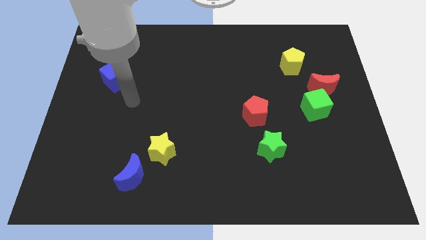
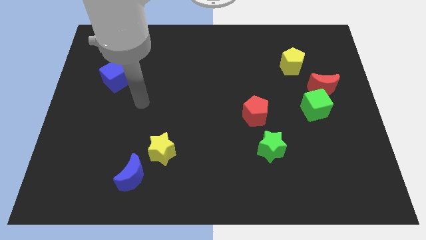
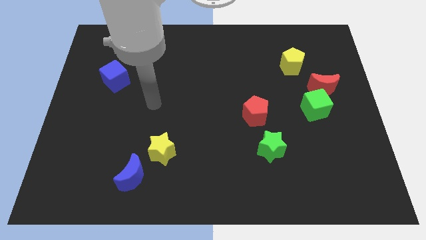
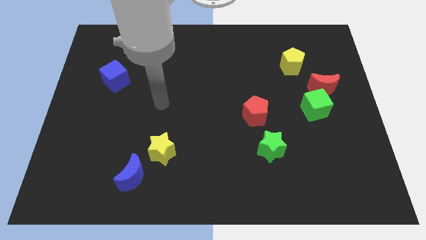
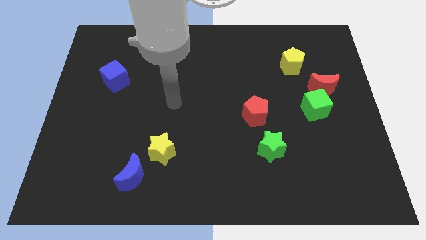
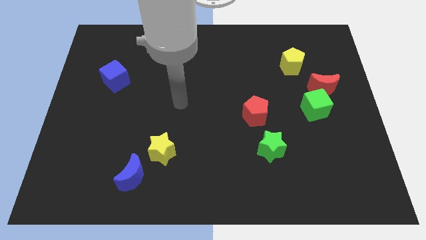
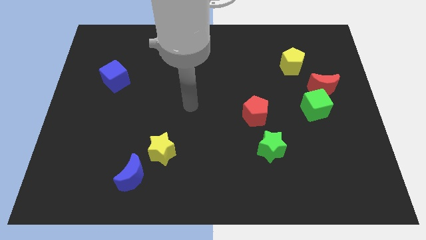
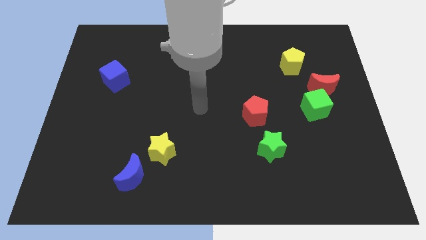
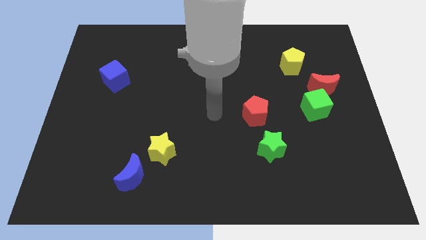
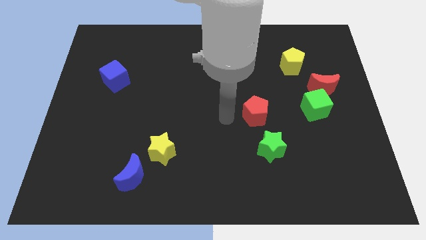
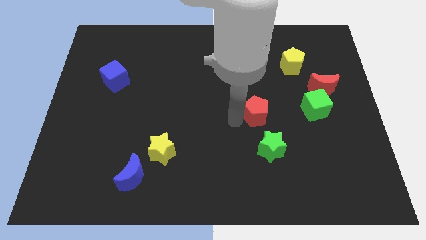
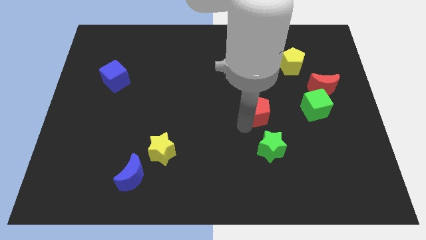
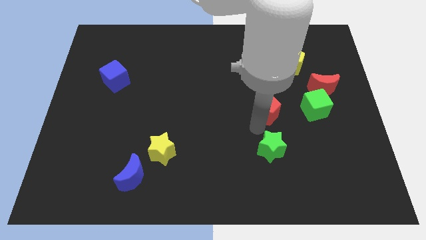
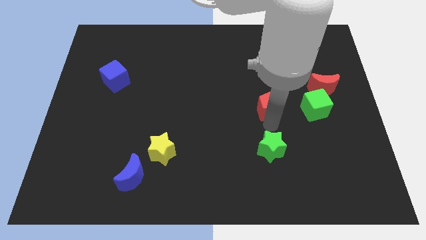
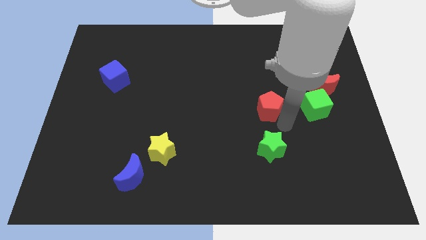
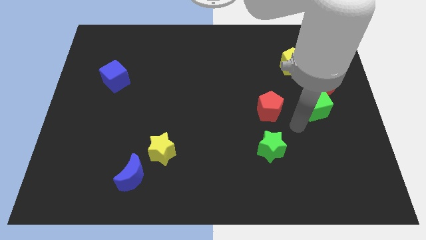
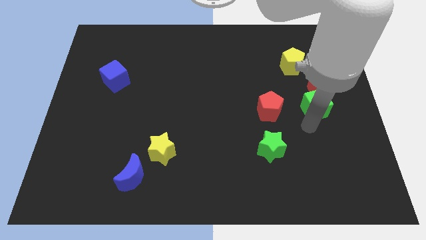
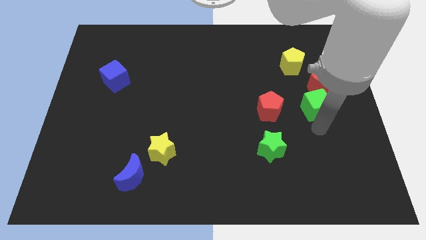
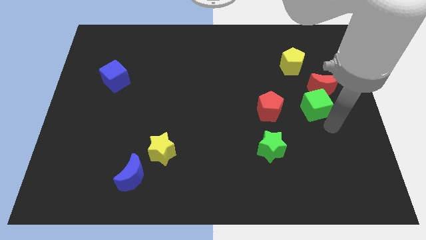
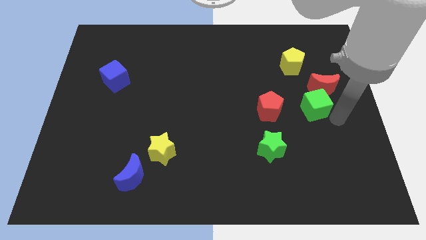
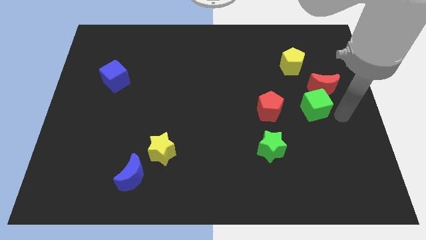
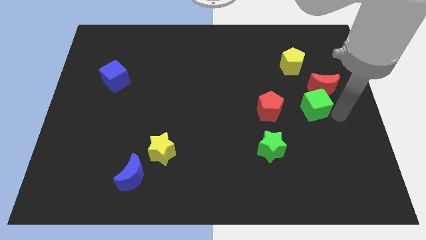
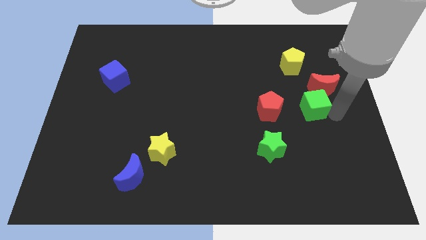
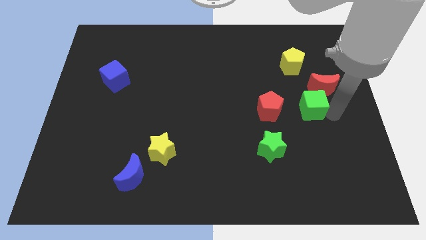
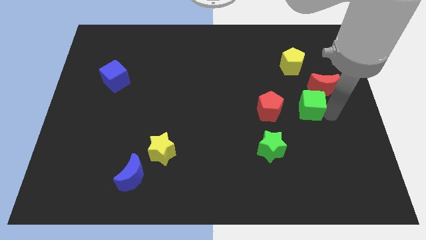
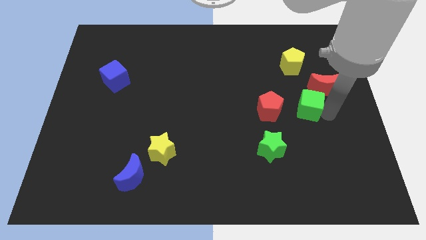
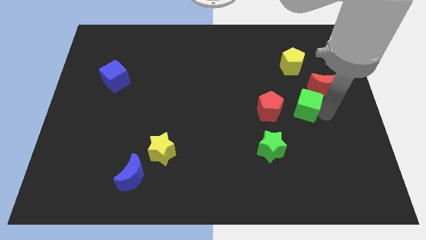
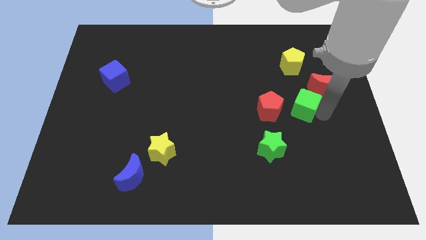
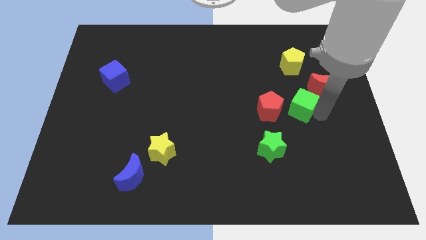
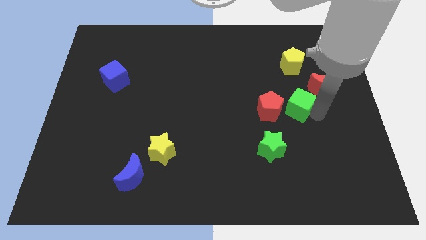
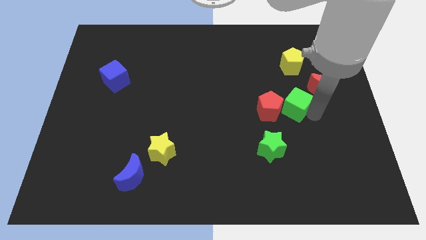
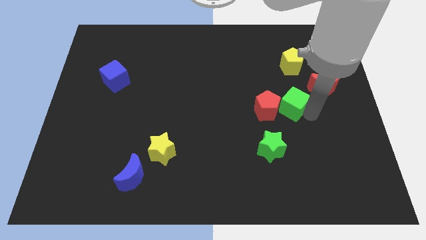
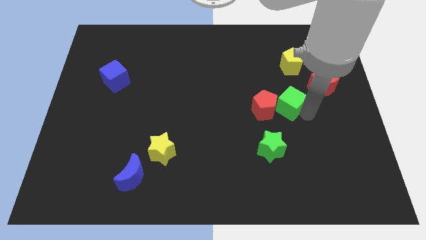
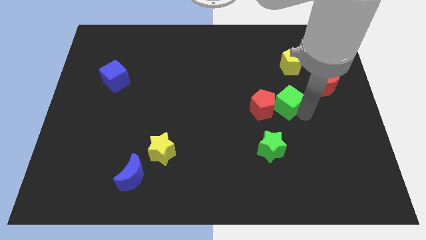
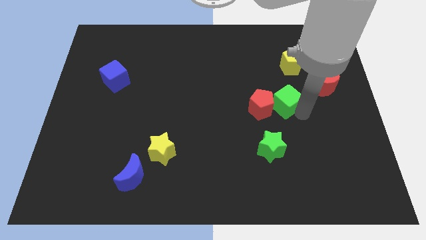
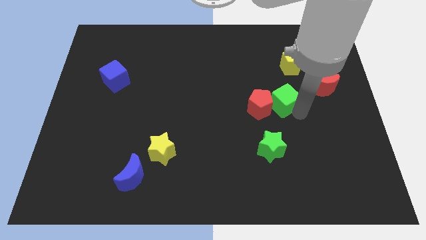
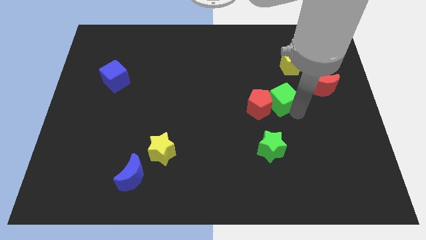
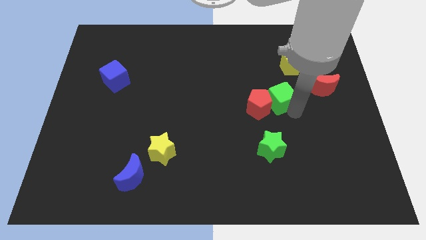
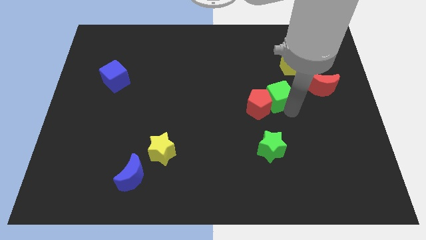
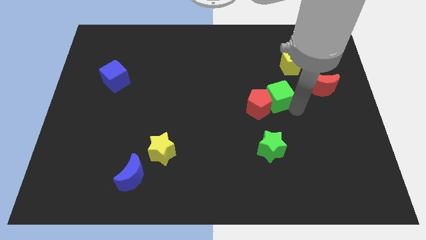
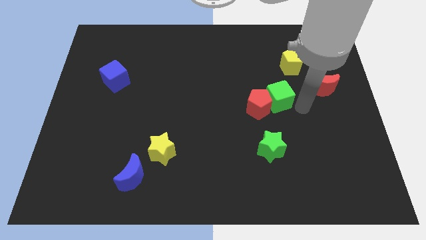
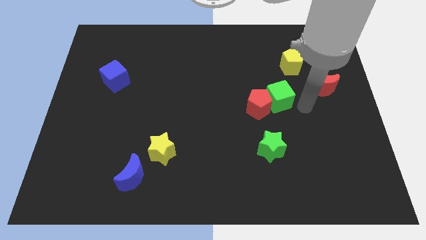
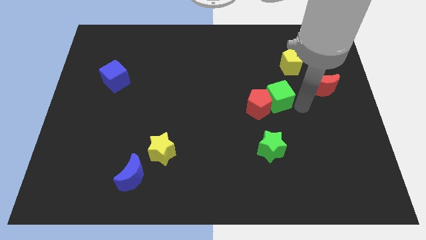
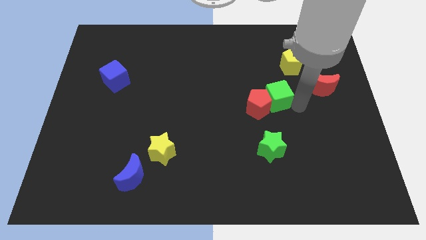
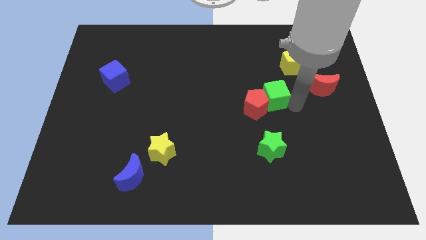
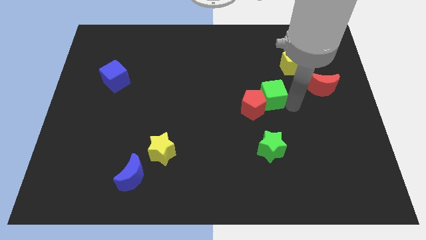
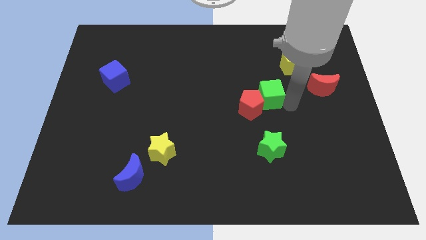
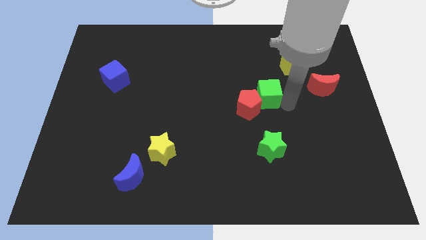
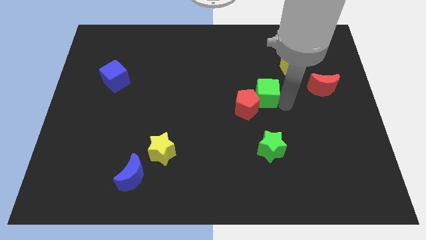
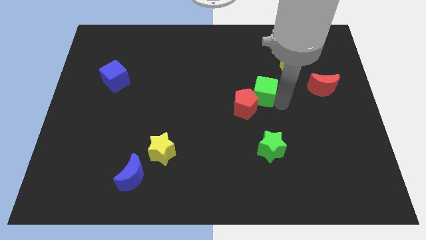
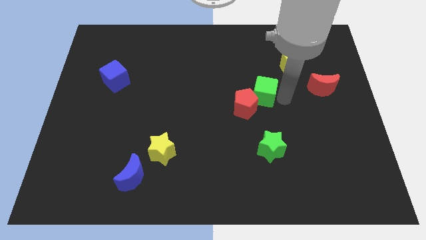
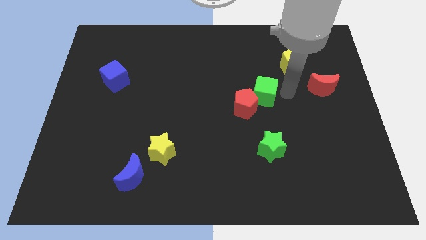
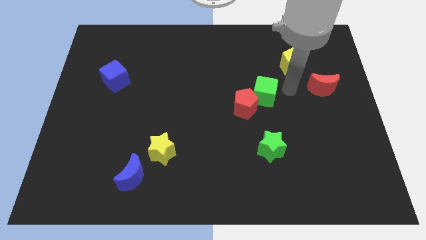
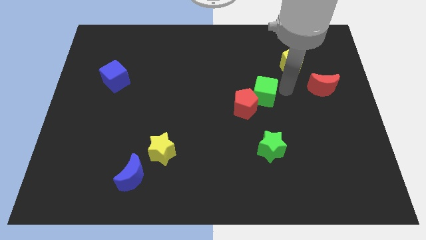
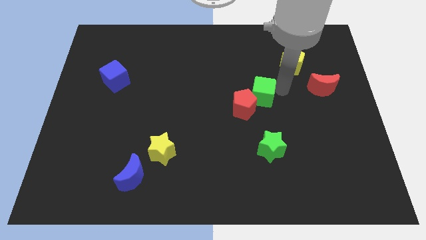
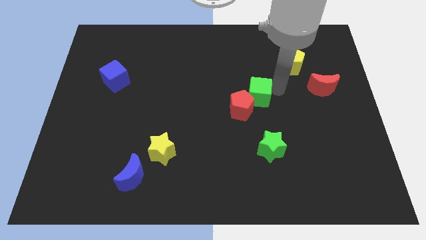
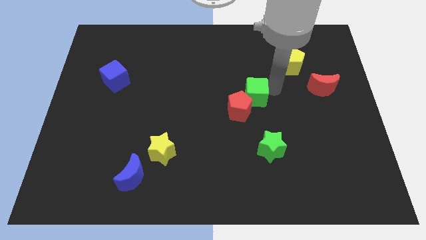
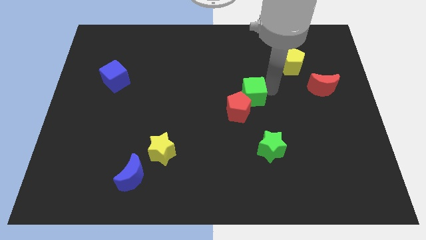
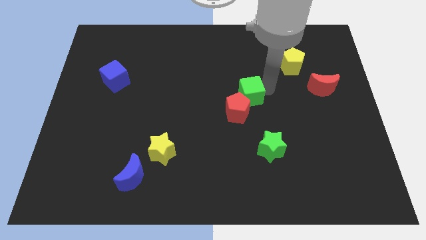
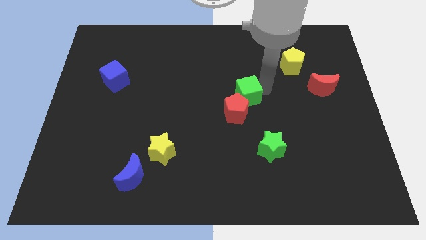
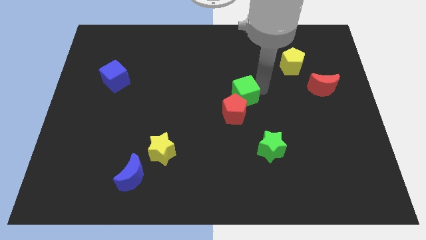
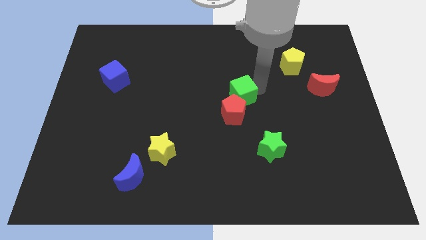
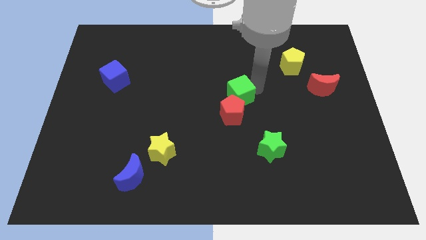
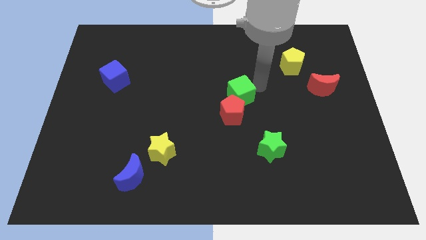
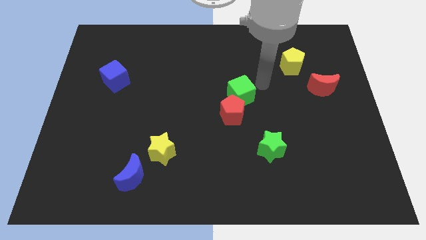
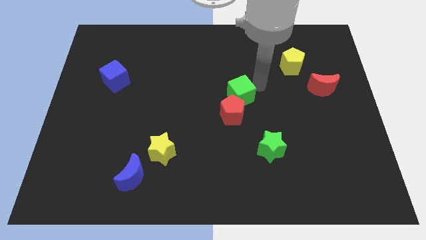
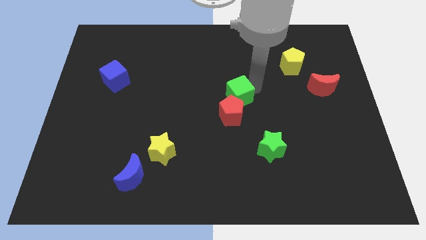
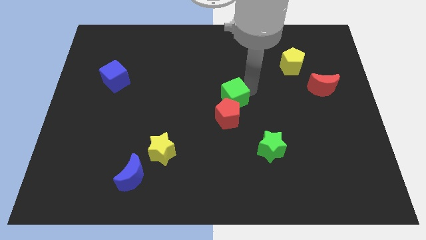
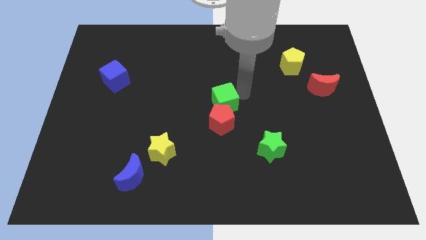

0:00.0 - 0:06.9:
slide the green cube left

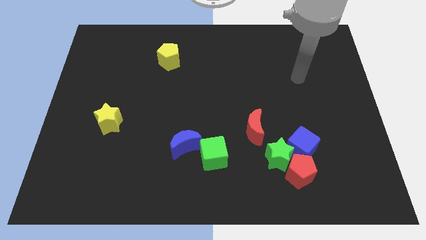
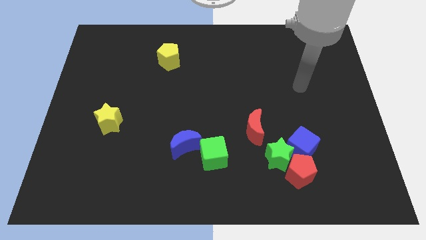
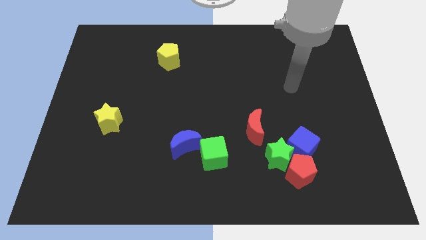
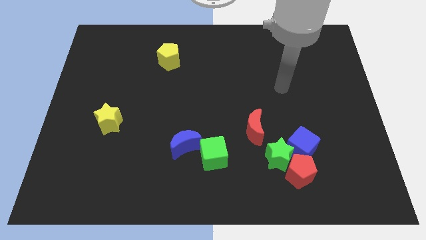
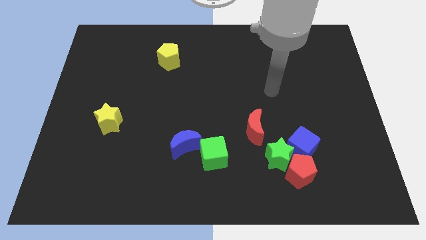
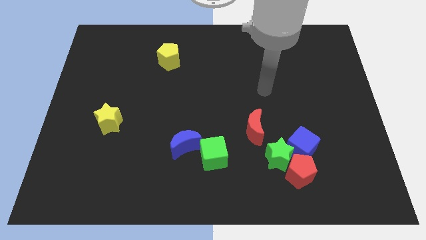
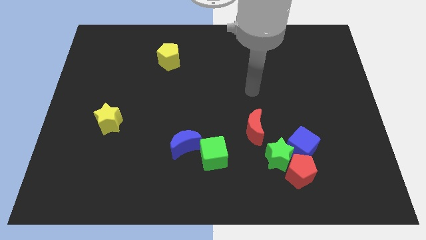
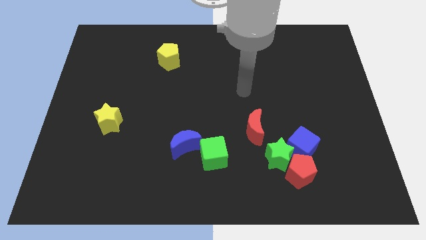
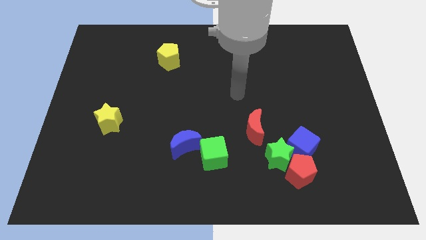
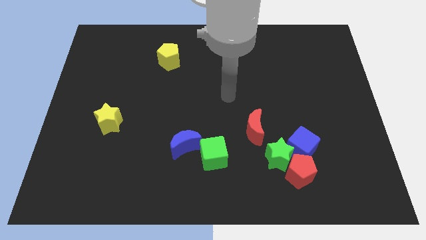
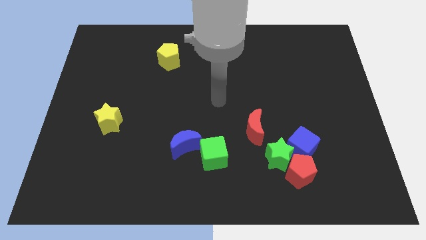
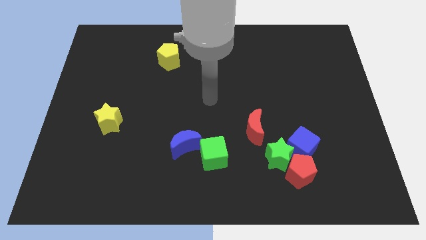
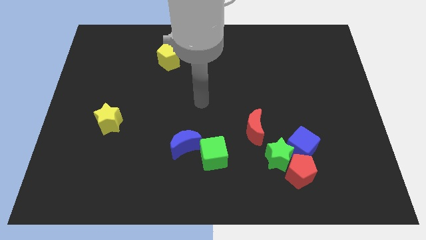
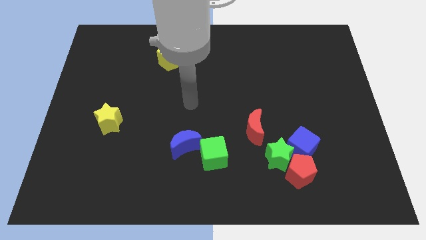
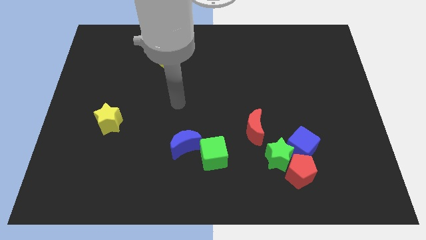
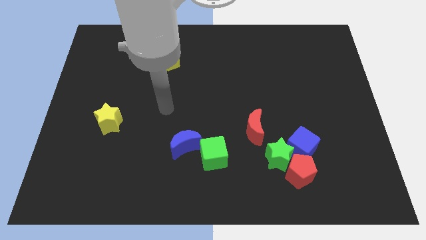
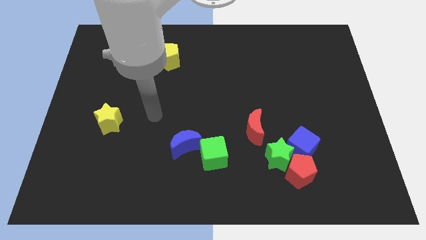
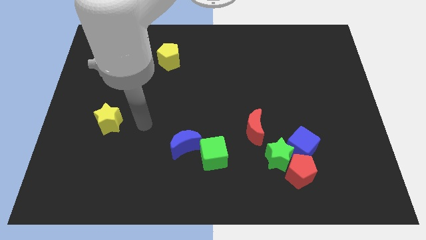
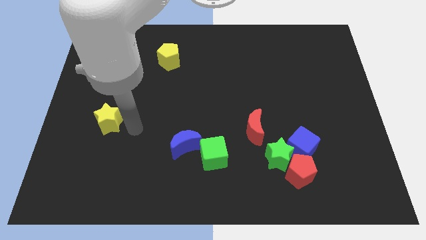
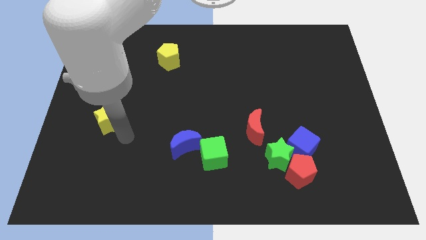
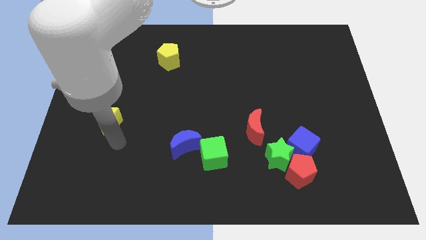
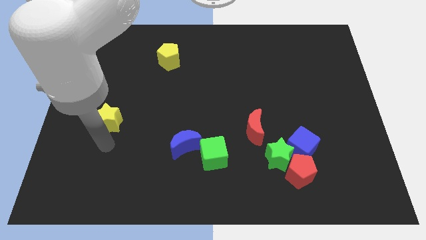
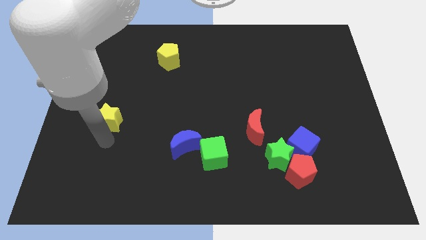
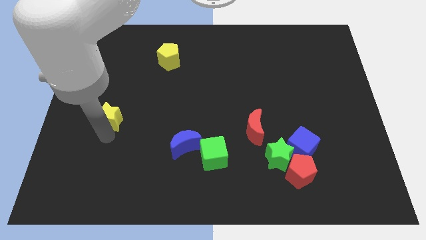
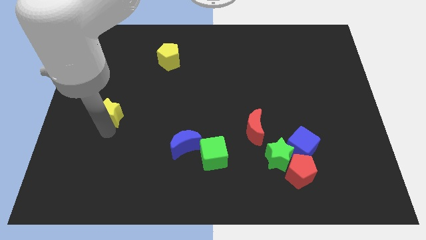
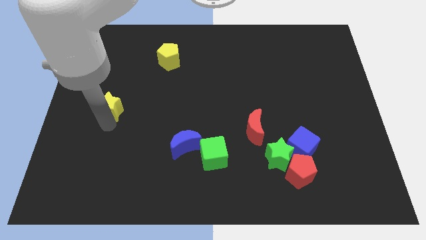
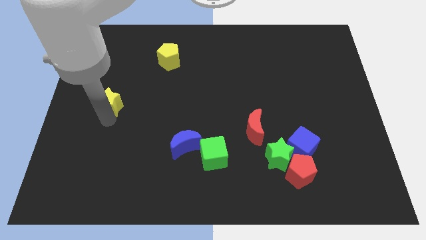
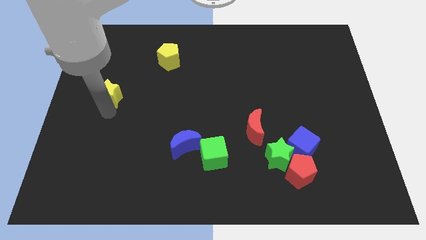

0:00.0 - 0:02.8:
slightly move the yellow star upwards
